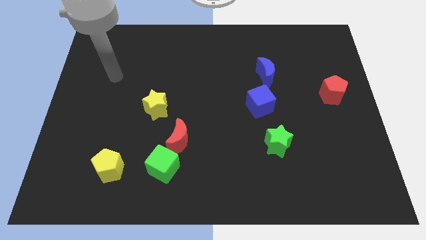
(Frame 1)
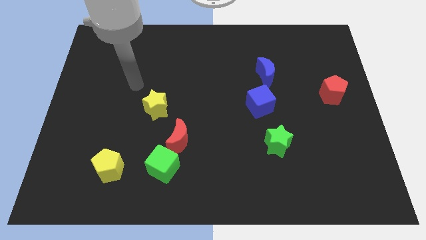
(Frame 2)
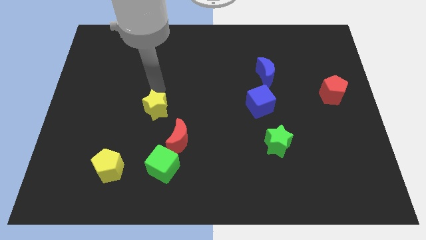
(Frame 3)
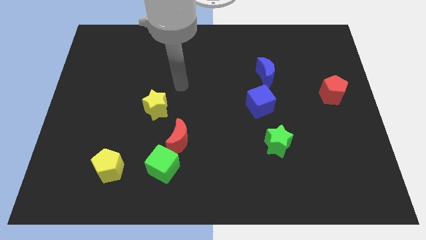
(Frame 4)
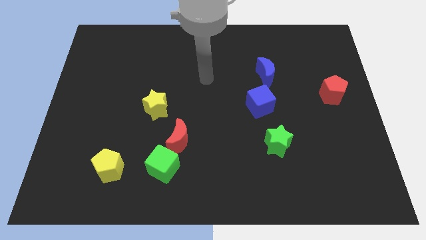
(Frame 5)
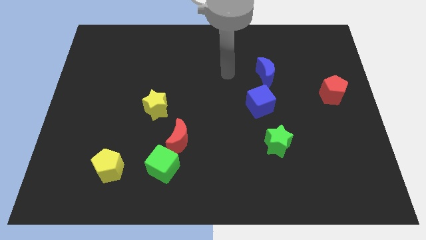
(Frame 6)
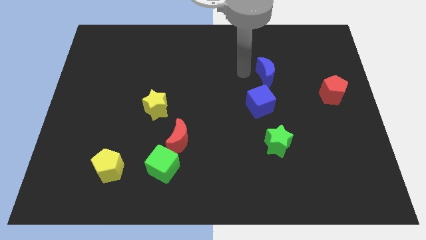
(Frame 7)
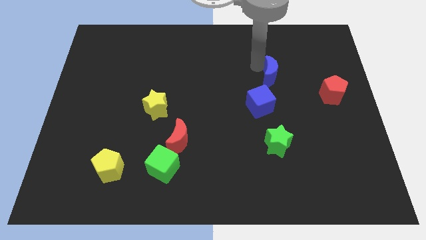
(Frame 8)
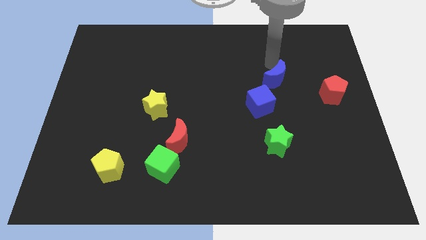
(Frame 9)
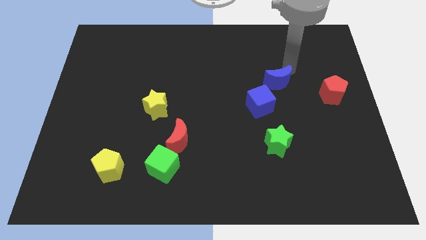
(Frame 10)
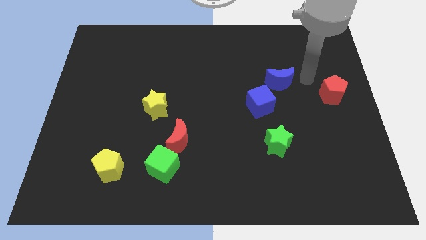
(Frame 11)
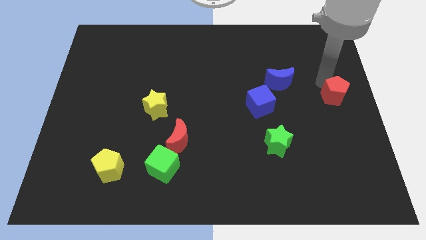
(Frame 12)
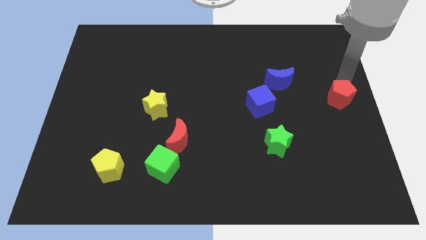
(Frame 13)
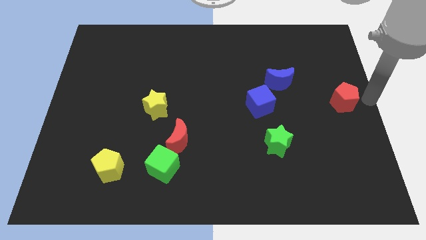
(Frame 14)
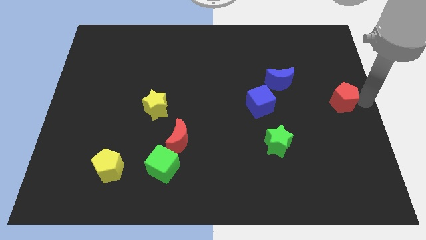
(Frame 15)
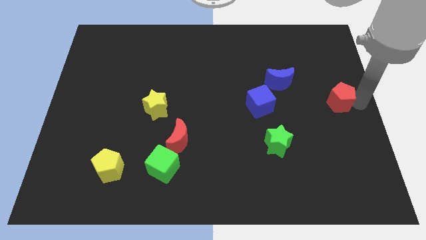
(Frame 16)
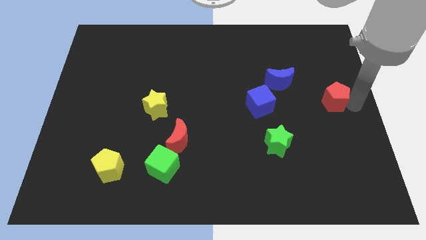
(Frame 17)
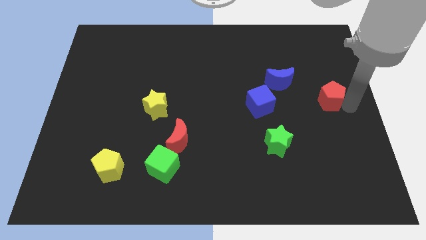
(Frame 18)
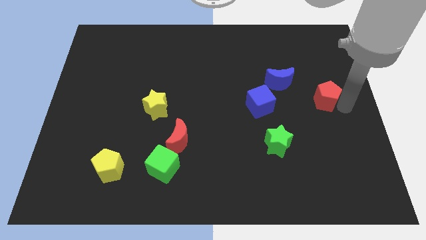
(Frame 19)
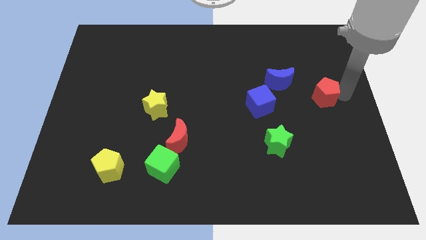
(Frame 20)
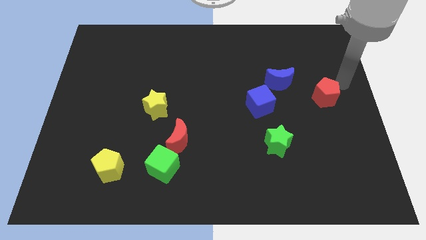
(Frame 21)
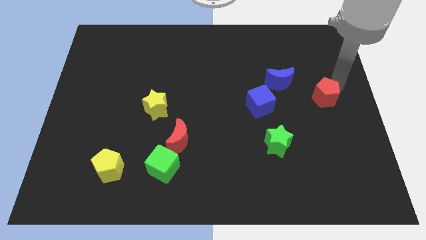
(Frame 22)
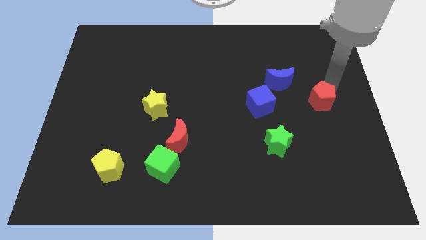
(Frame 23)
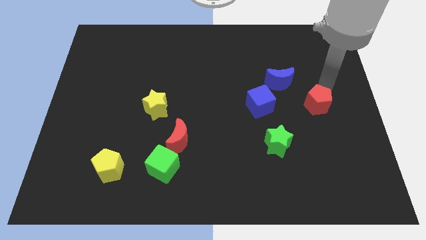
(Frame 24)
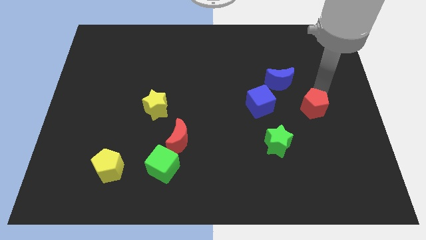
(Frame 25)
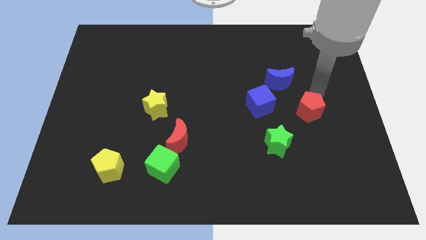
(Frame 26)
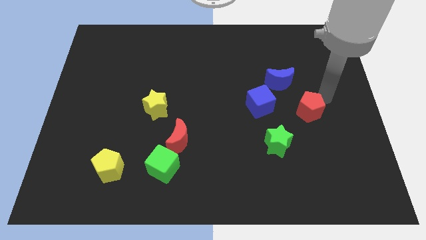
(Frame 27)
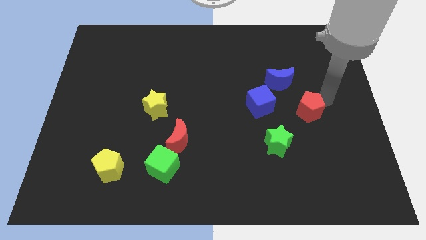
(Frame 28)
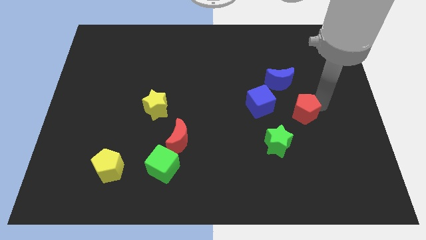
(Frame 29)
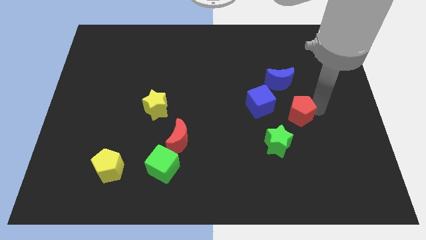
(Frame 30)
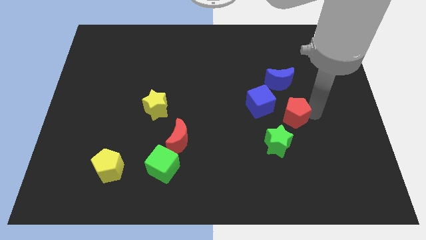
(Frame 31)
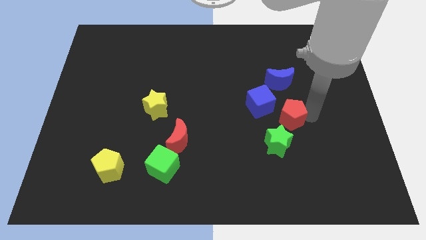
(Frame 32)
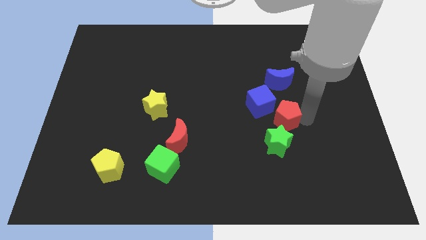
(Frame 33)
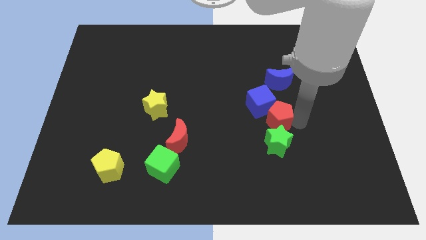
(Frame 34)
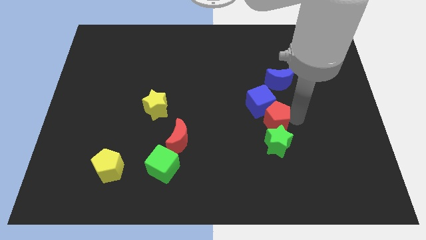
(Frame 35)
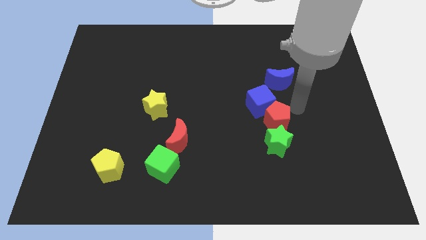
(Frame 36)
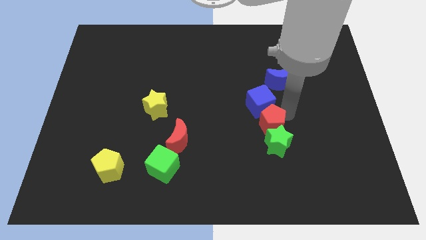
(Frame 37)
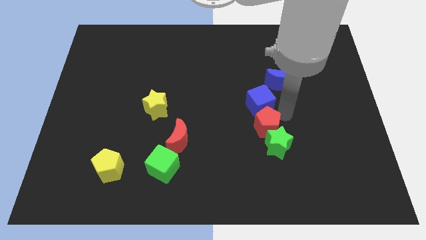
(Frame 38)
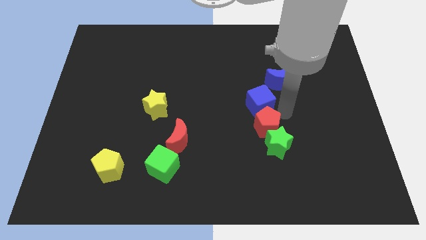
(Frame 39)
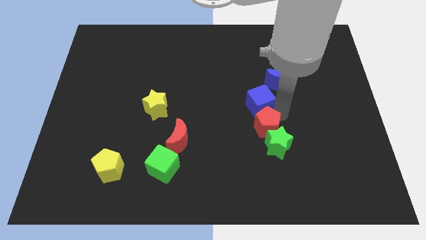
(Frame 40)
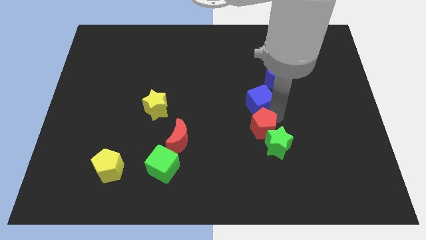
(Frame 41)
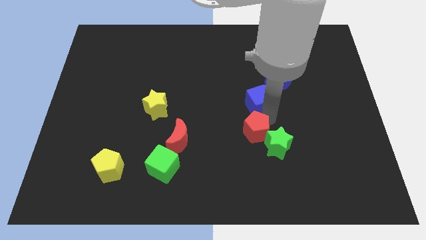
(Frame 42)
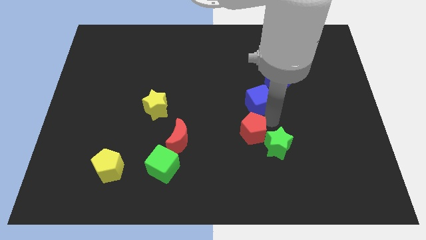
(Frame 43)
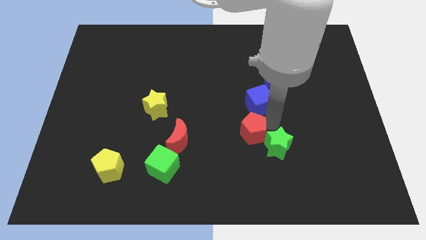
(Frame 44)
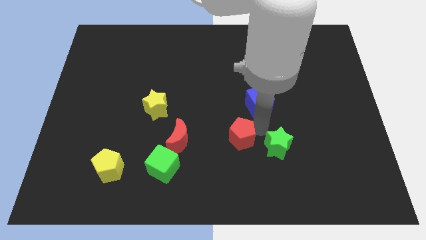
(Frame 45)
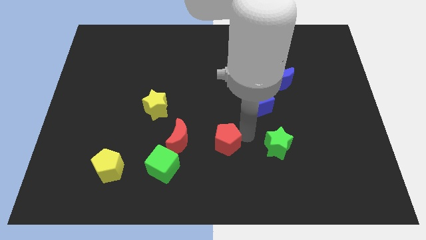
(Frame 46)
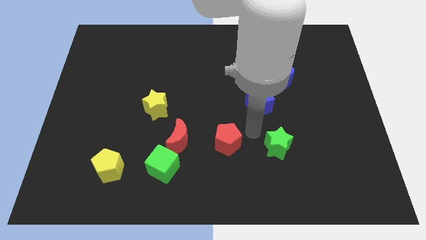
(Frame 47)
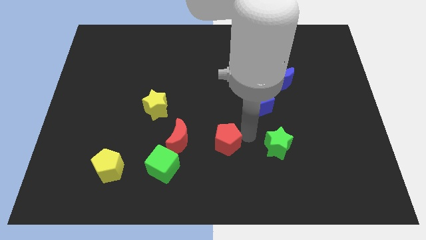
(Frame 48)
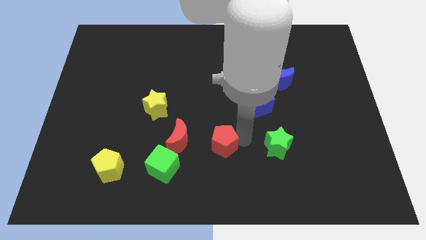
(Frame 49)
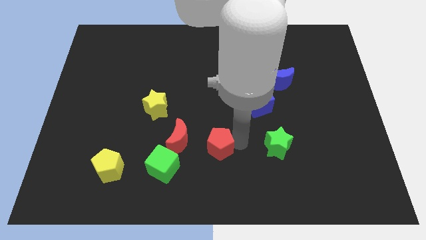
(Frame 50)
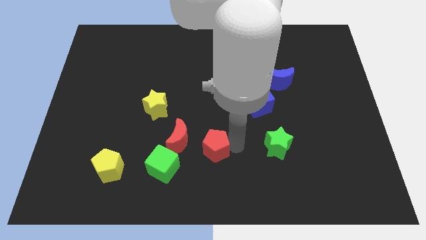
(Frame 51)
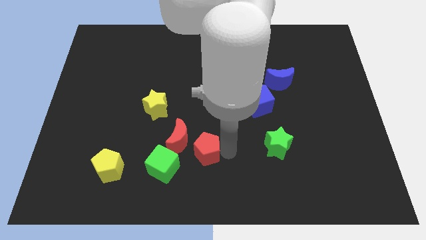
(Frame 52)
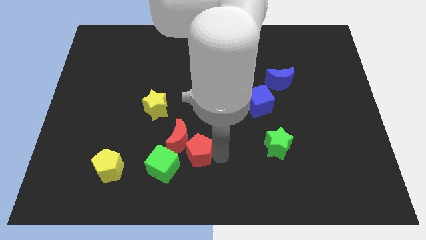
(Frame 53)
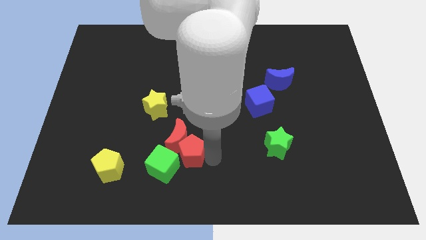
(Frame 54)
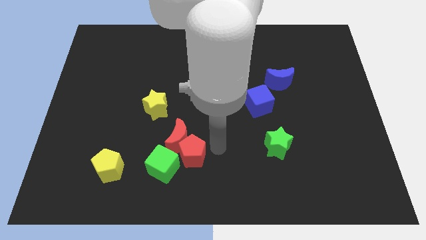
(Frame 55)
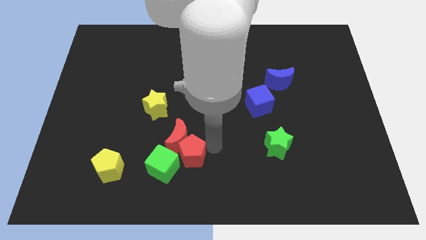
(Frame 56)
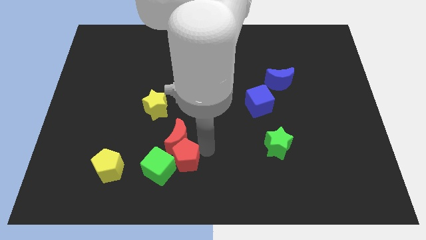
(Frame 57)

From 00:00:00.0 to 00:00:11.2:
put the red pentagon to the green cube

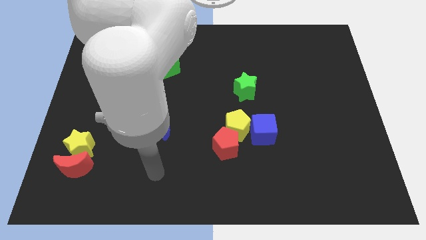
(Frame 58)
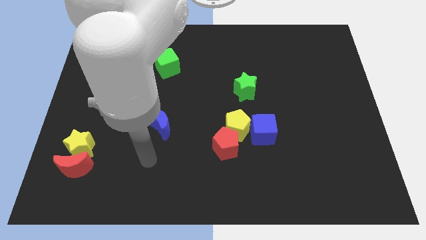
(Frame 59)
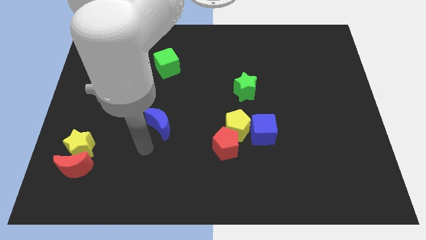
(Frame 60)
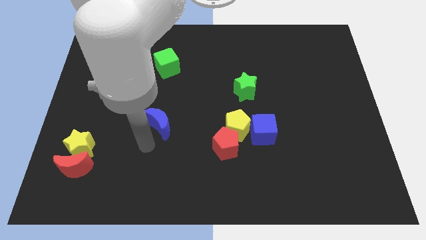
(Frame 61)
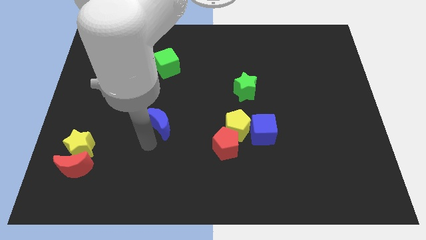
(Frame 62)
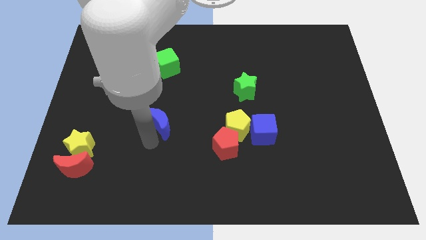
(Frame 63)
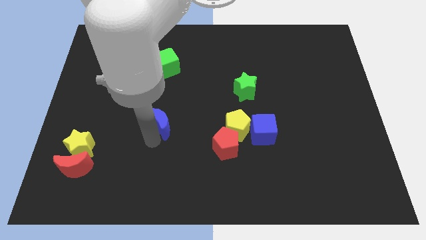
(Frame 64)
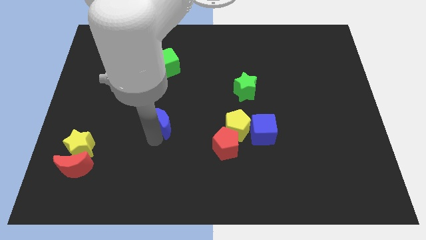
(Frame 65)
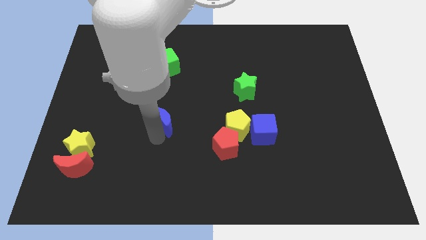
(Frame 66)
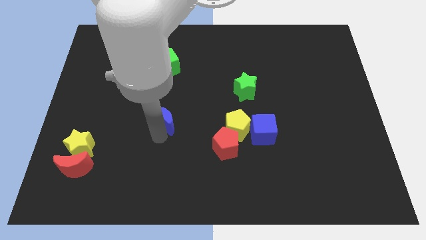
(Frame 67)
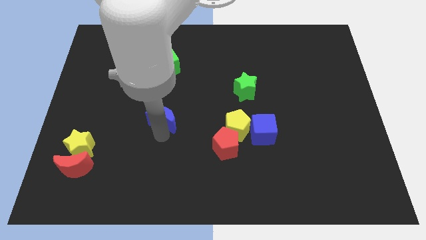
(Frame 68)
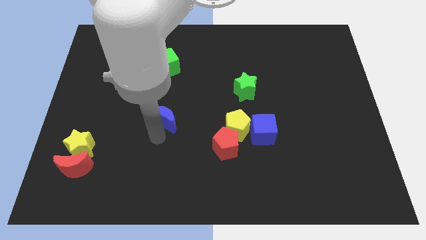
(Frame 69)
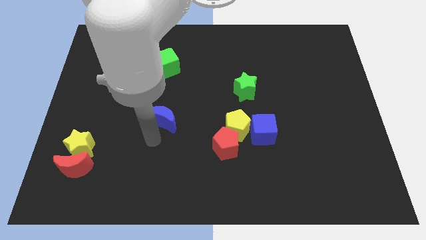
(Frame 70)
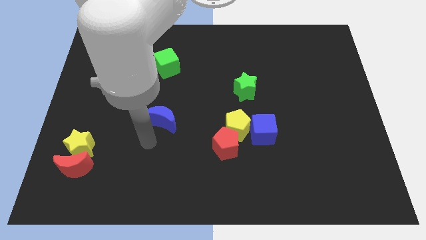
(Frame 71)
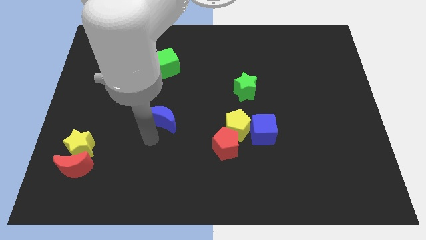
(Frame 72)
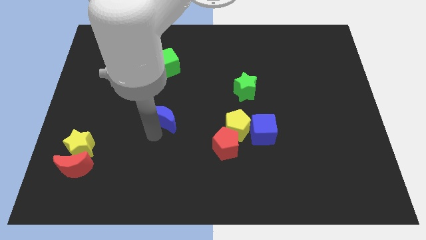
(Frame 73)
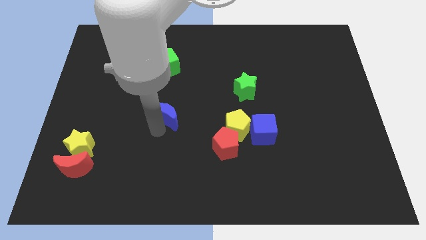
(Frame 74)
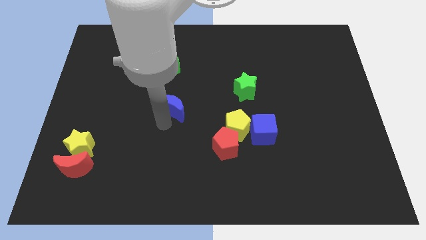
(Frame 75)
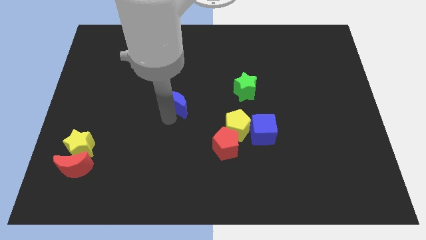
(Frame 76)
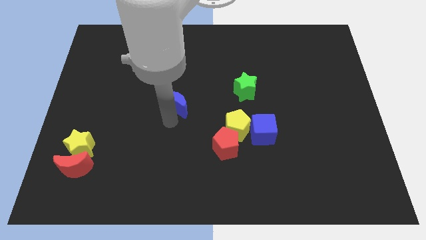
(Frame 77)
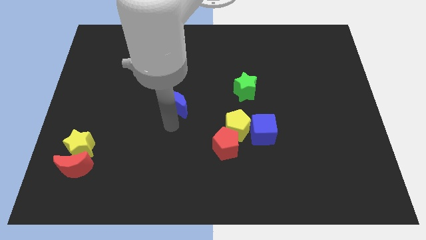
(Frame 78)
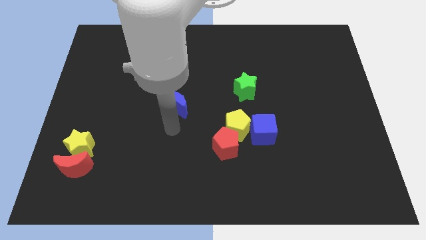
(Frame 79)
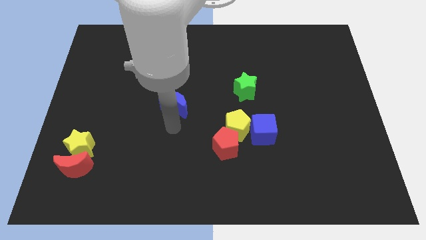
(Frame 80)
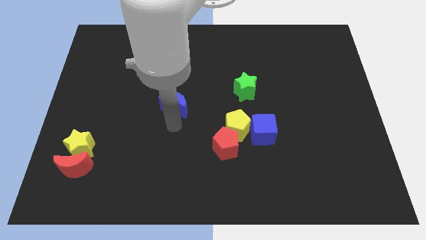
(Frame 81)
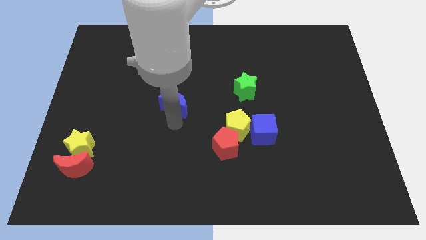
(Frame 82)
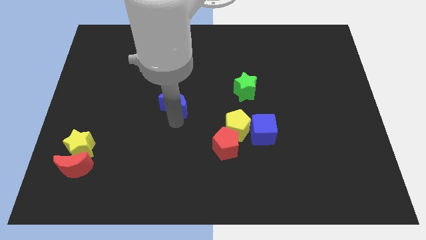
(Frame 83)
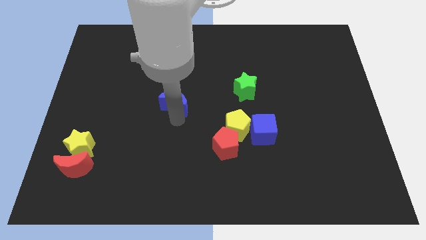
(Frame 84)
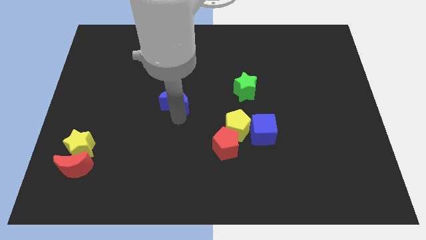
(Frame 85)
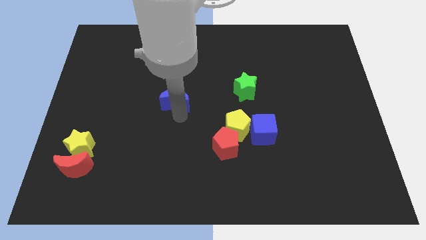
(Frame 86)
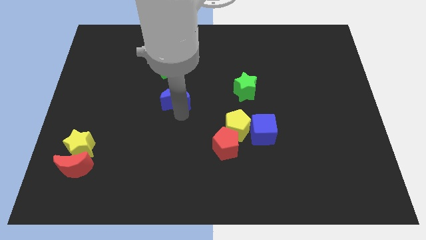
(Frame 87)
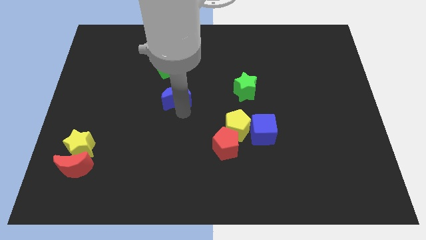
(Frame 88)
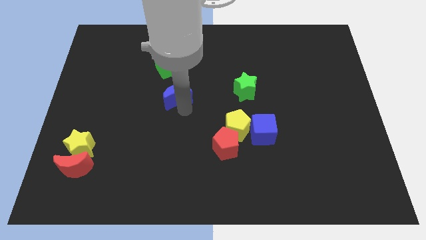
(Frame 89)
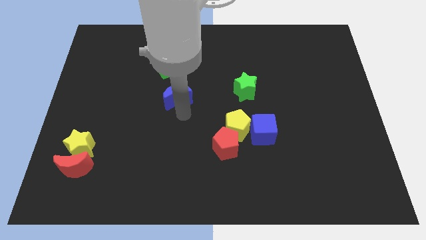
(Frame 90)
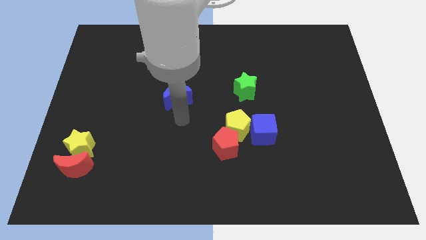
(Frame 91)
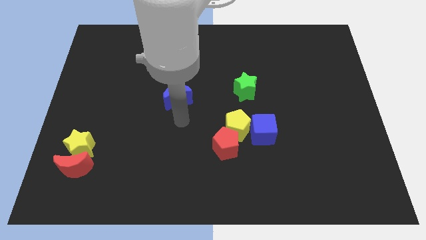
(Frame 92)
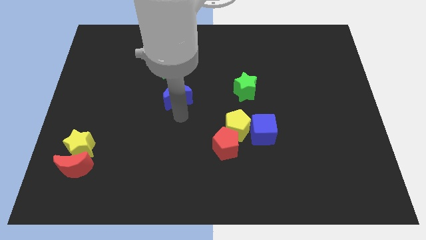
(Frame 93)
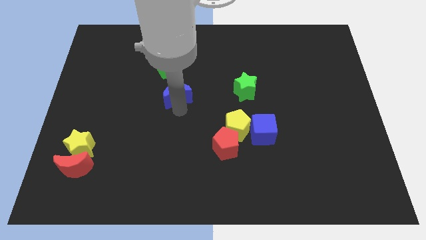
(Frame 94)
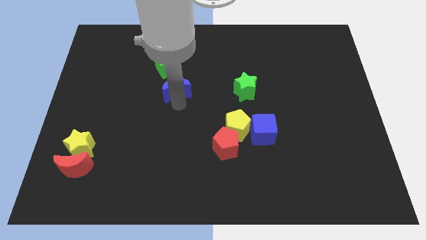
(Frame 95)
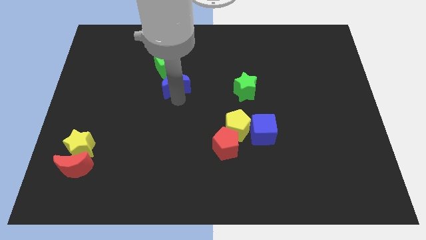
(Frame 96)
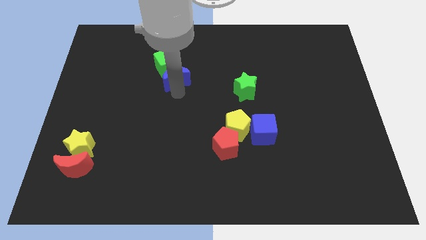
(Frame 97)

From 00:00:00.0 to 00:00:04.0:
slide the blue moon close to the green cube
